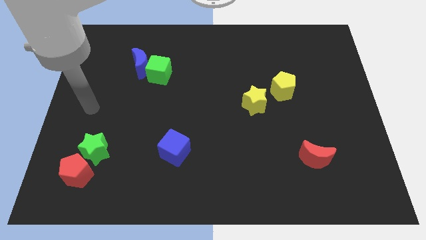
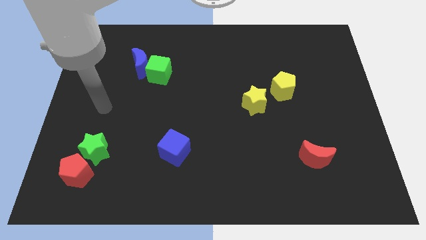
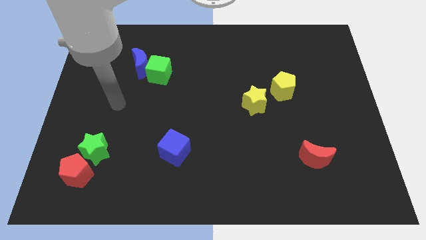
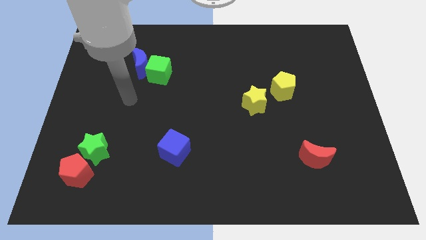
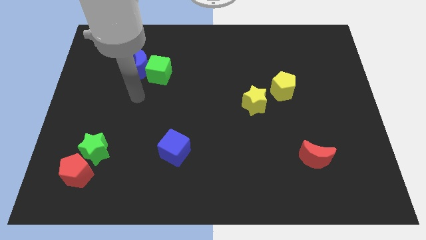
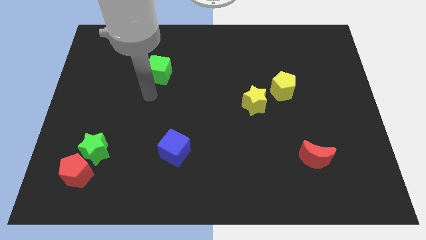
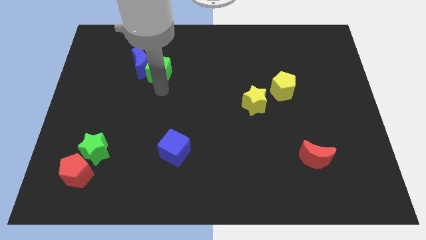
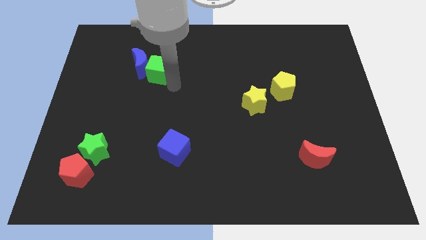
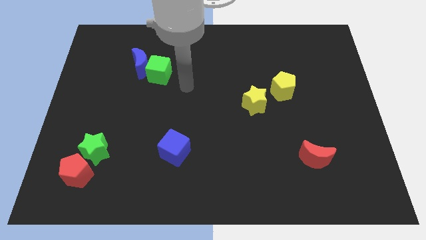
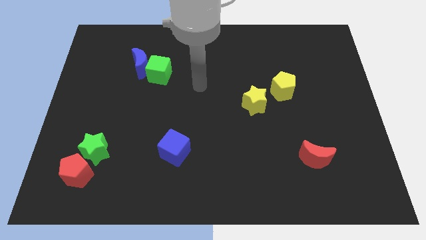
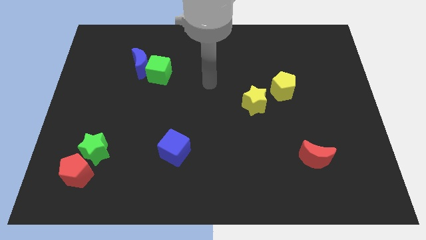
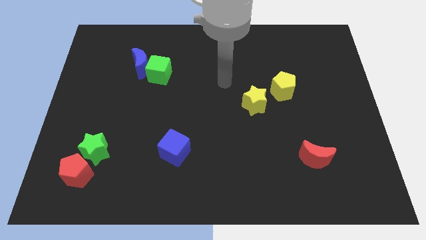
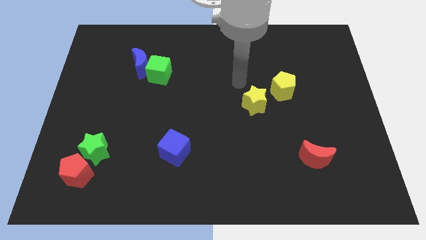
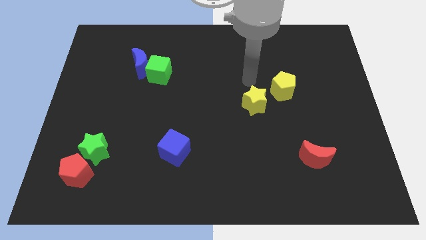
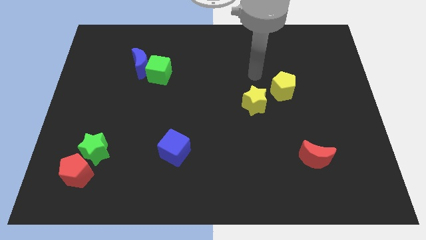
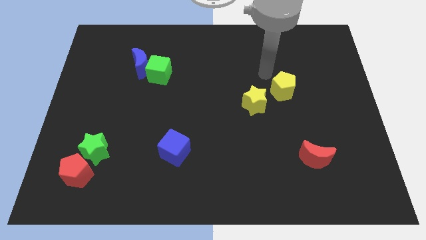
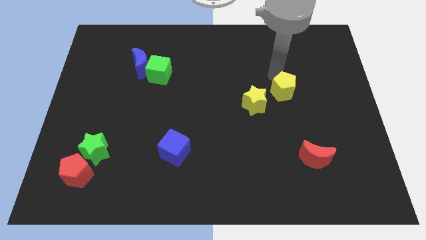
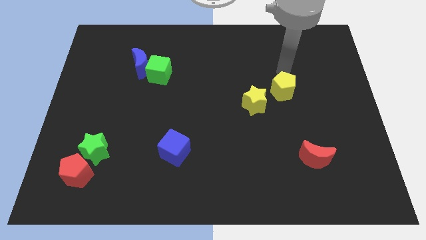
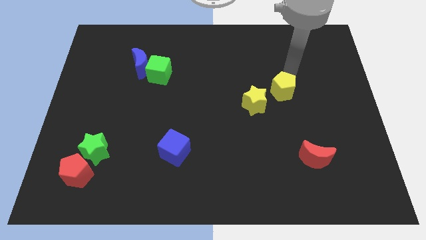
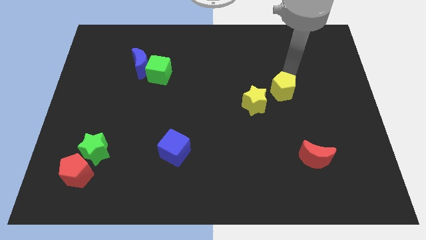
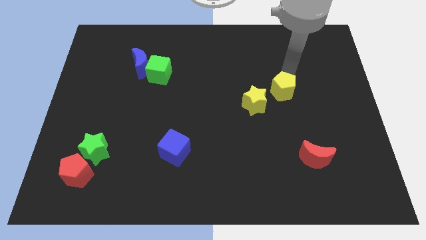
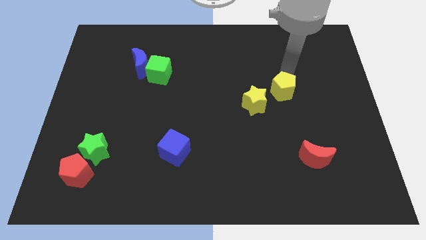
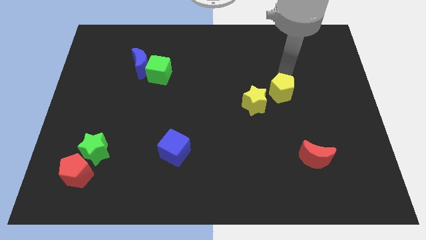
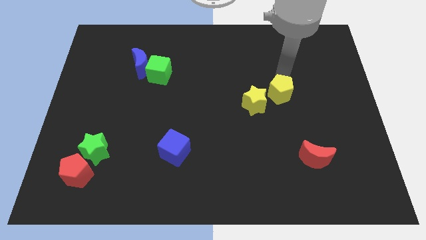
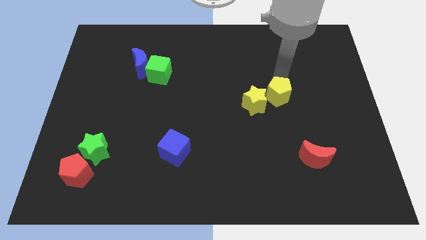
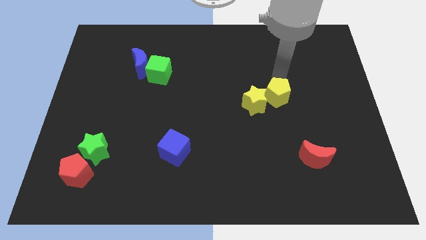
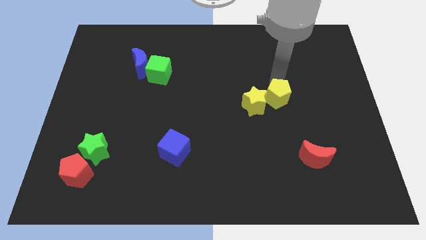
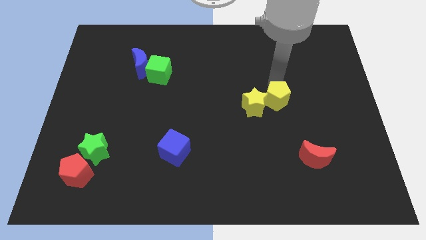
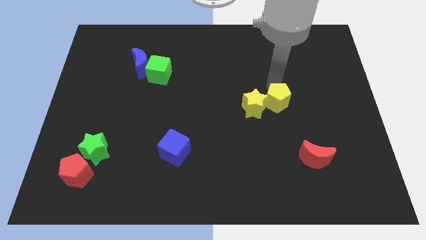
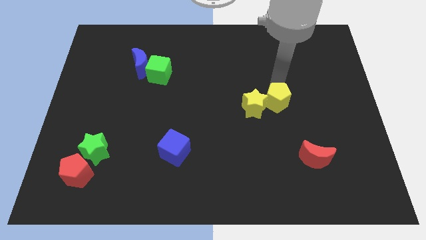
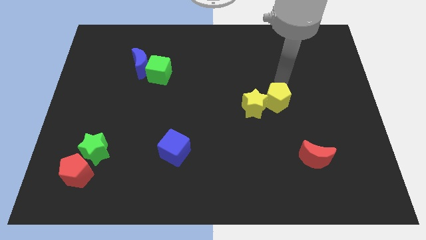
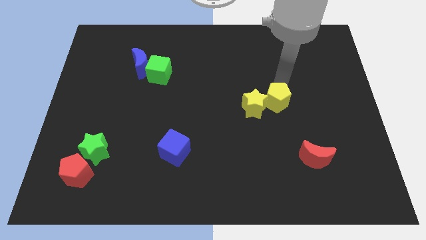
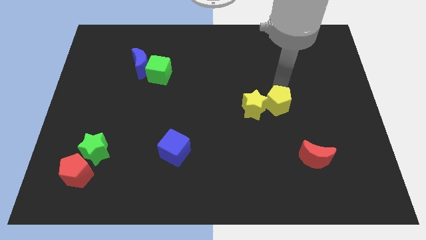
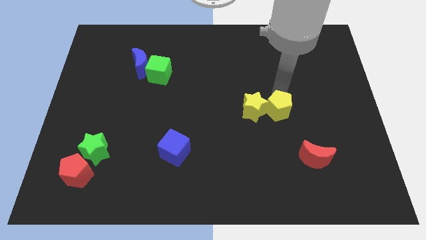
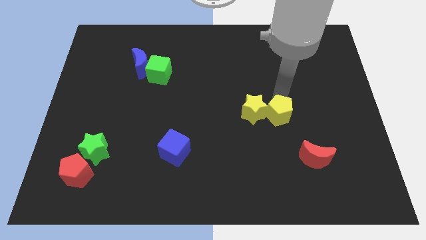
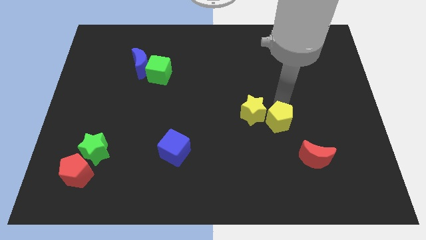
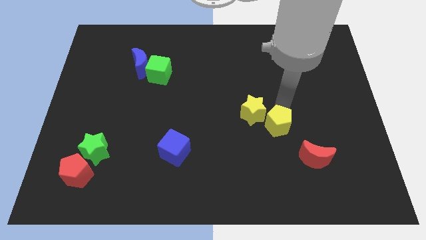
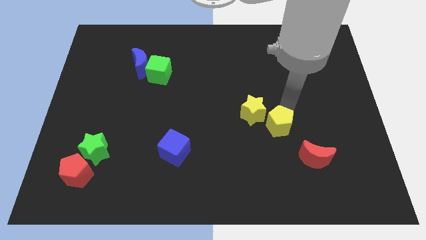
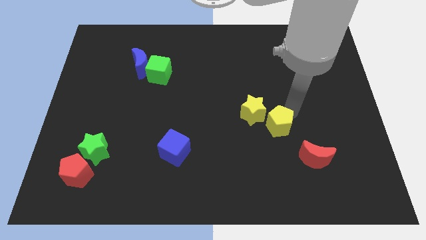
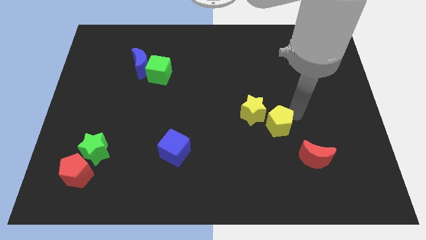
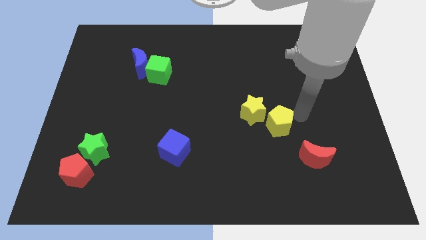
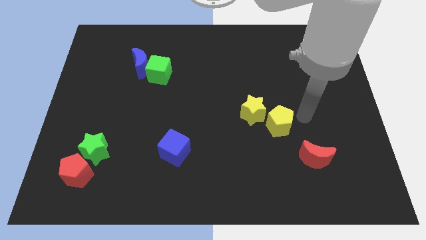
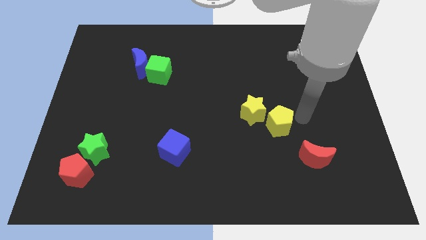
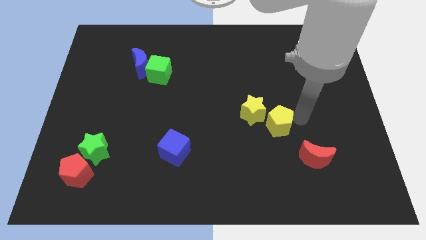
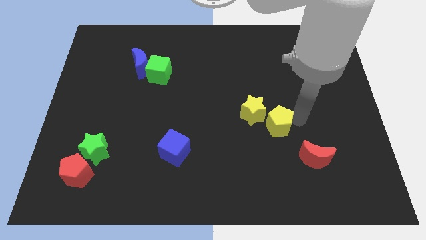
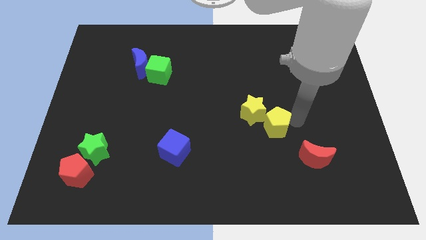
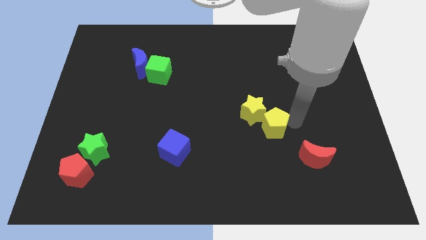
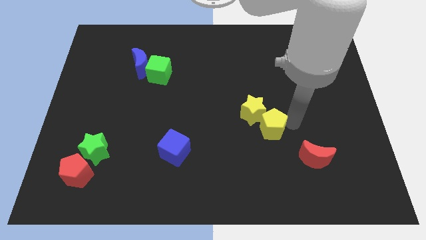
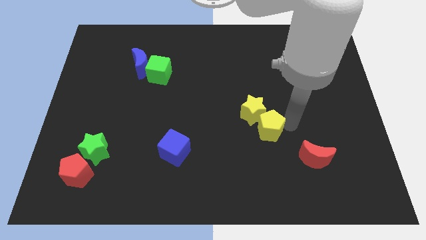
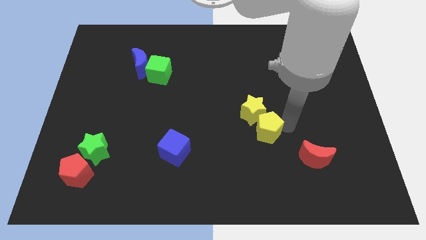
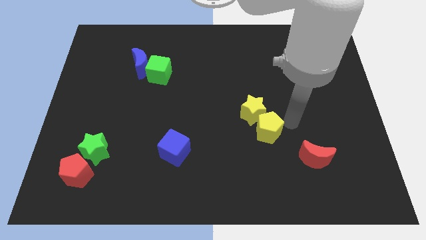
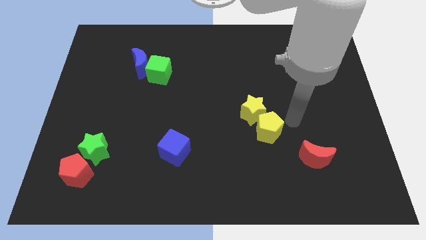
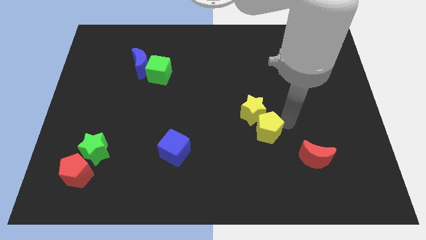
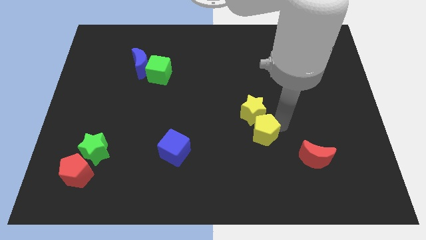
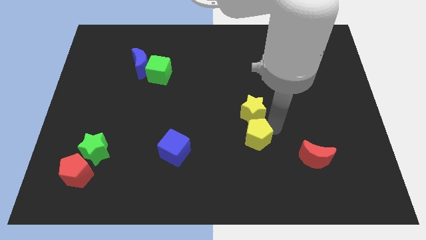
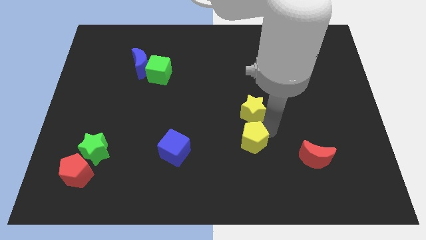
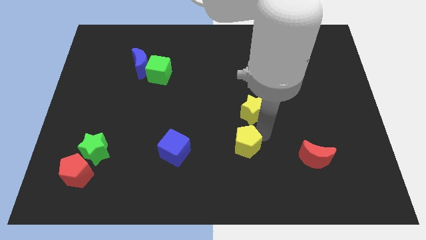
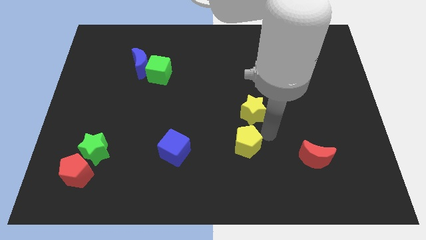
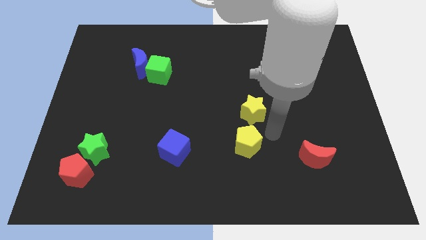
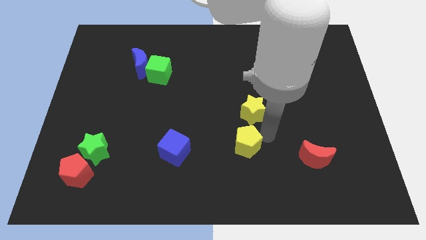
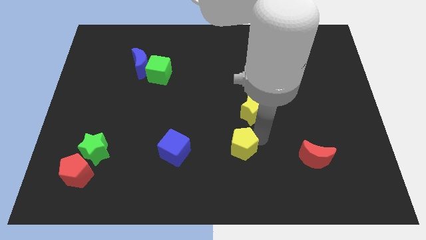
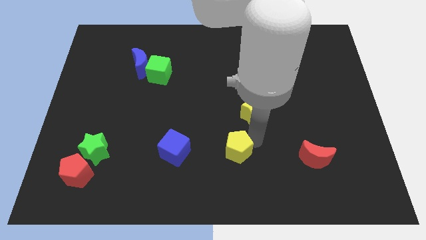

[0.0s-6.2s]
slide the yellow pentagon down and to the left diagonally

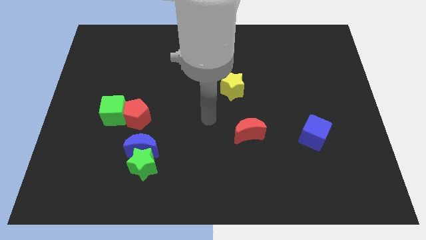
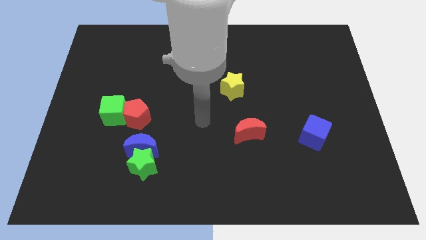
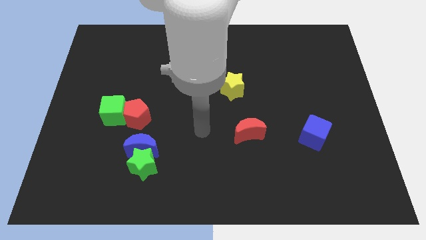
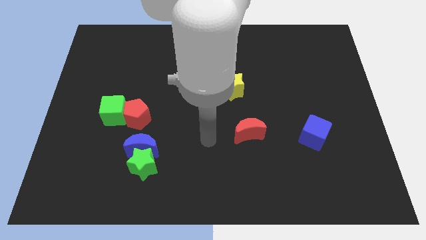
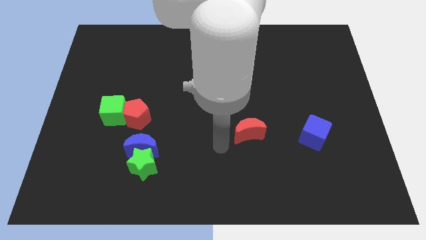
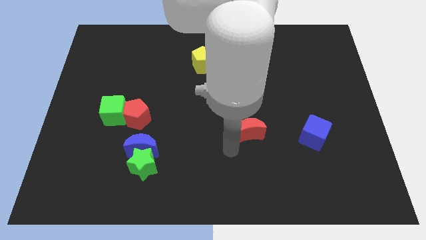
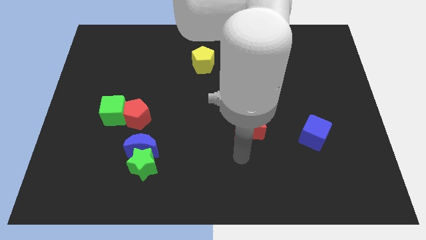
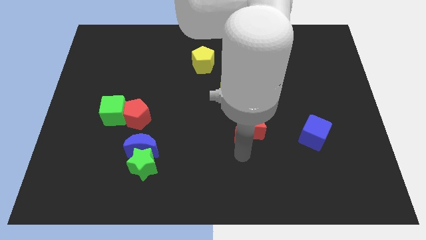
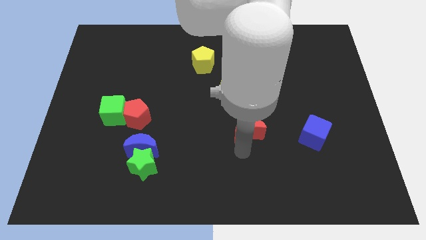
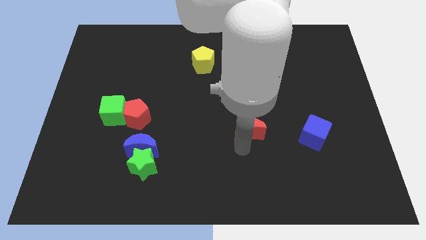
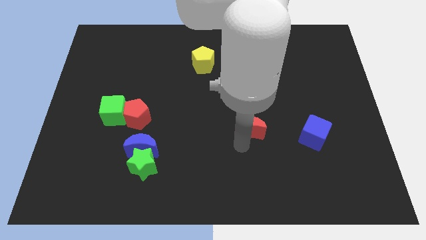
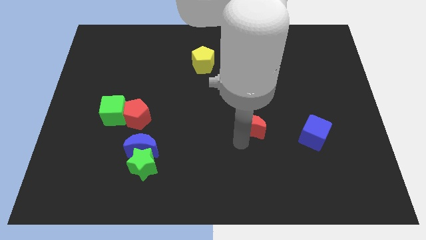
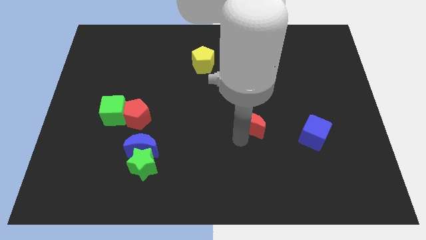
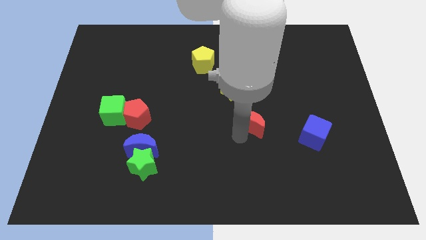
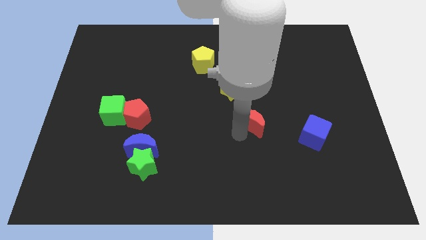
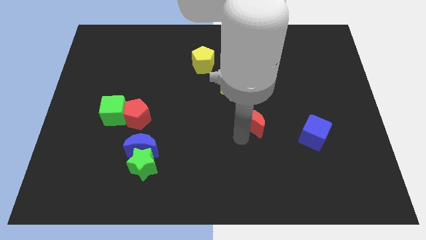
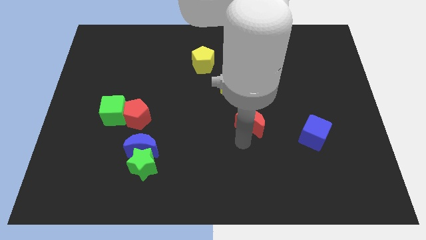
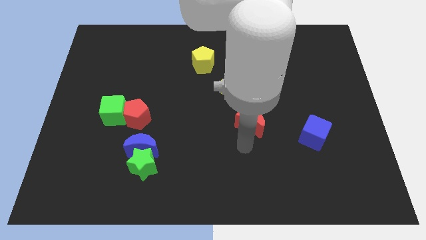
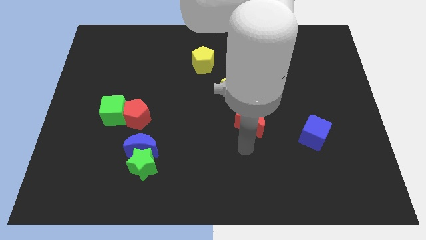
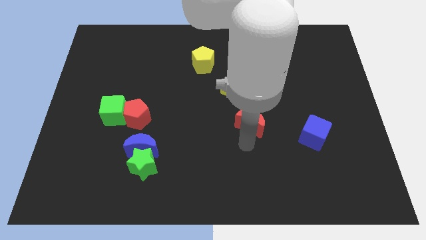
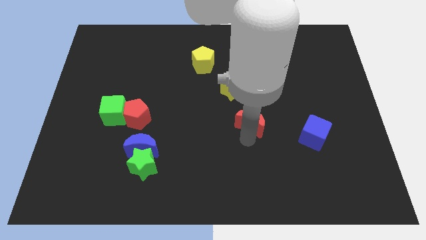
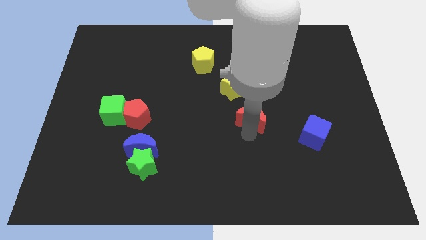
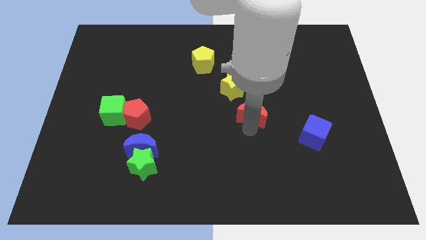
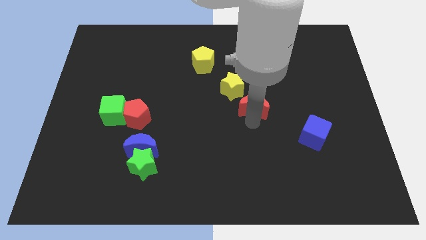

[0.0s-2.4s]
move the red moon slightly upwards
